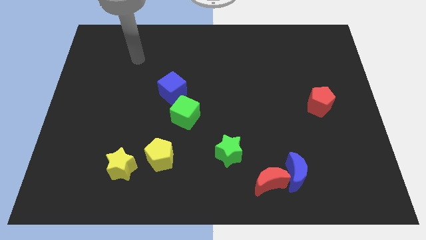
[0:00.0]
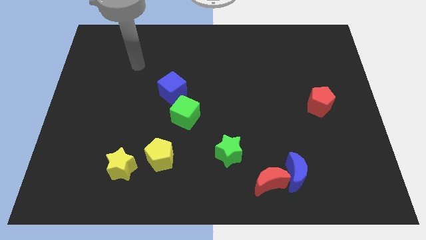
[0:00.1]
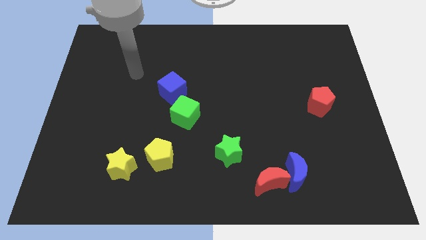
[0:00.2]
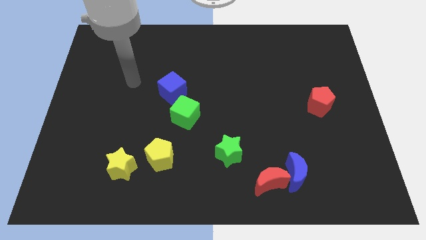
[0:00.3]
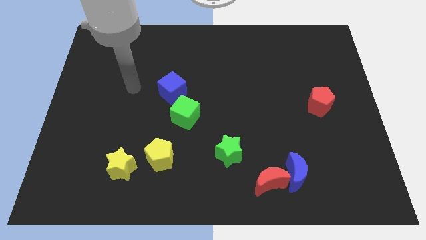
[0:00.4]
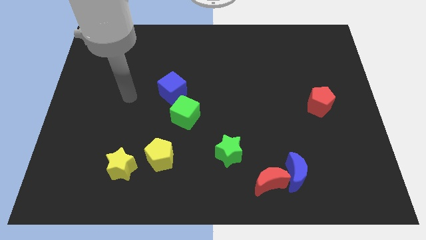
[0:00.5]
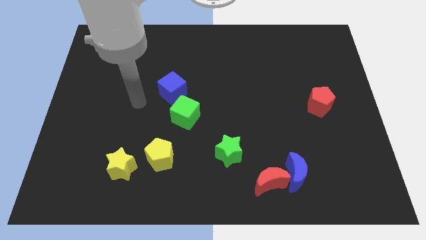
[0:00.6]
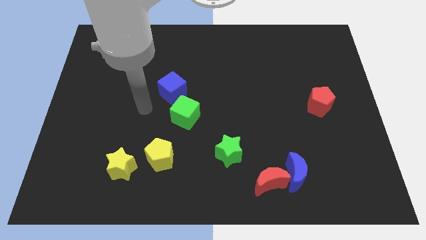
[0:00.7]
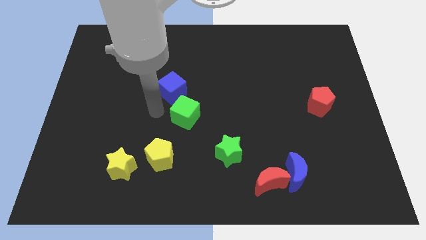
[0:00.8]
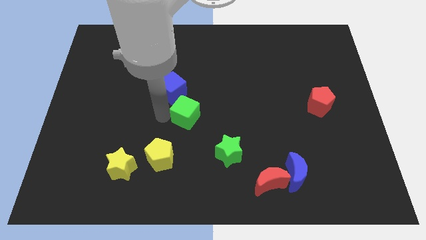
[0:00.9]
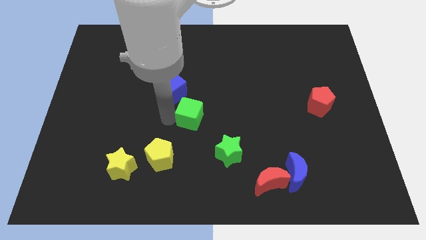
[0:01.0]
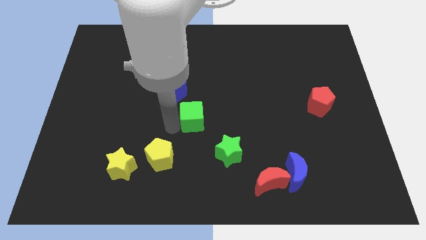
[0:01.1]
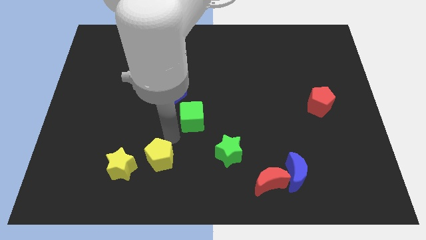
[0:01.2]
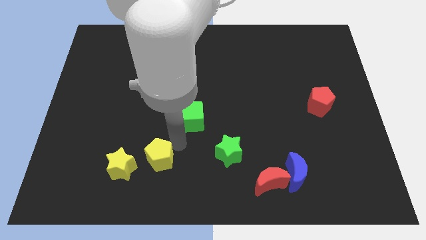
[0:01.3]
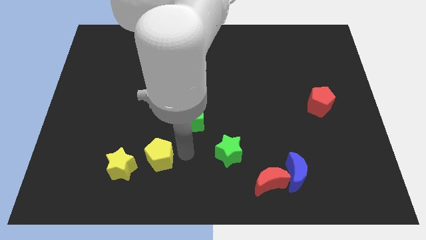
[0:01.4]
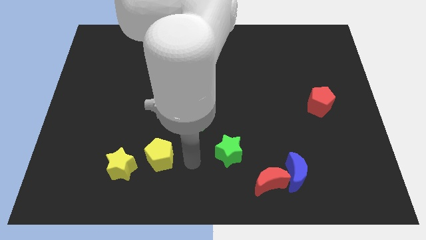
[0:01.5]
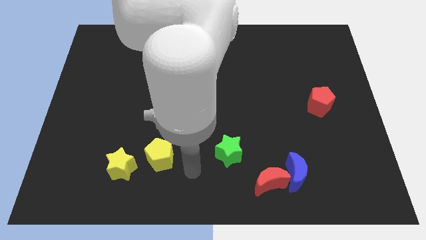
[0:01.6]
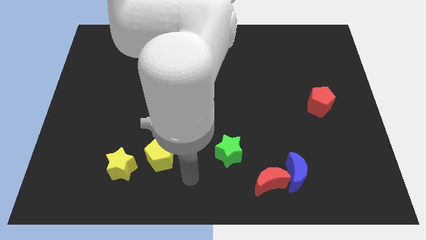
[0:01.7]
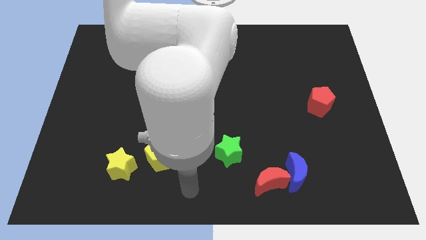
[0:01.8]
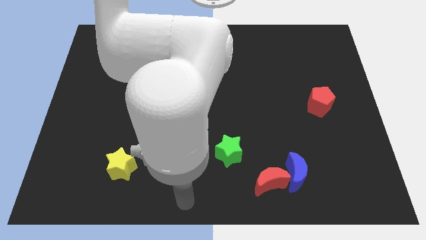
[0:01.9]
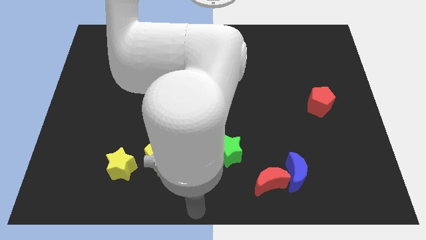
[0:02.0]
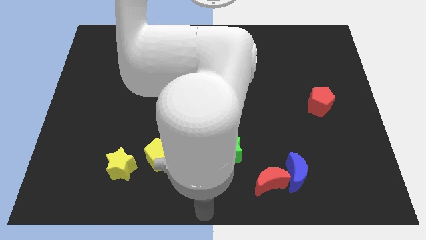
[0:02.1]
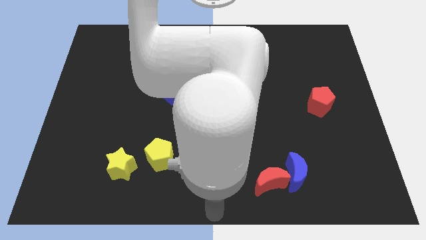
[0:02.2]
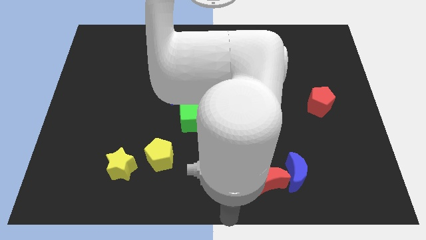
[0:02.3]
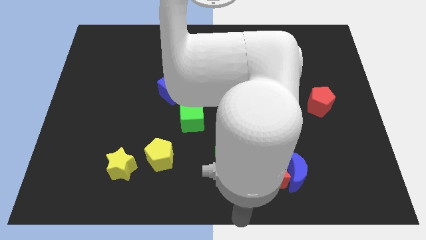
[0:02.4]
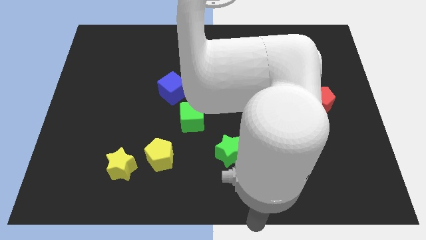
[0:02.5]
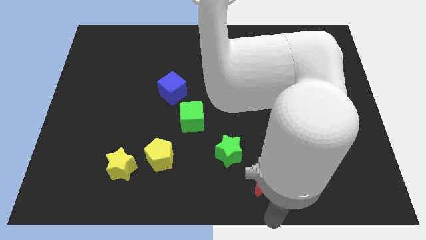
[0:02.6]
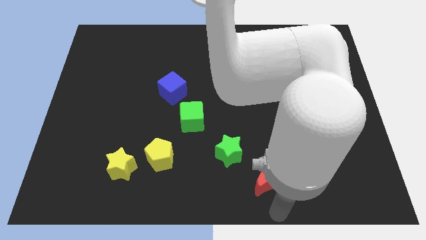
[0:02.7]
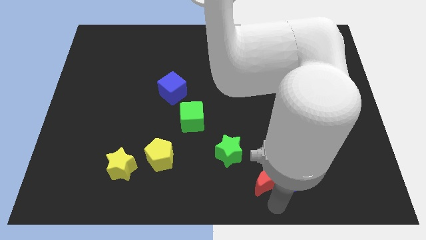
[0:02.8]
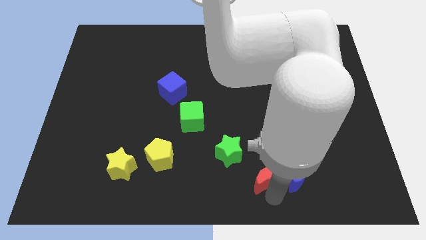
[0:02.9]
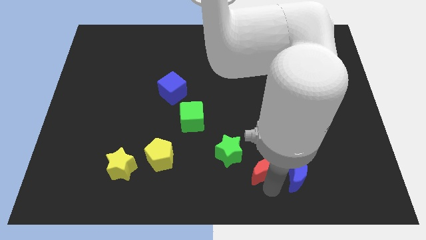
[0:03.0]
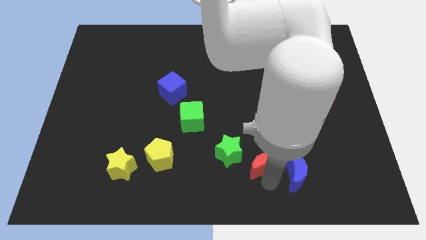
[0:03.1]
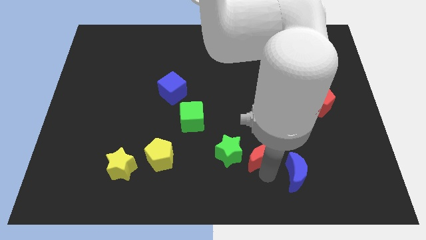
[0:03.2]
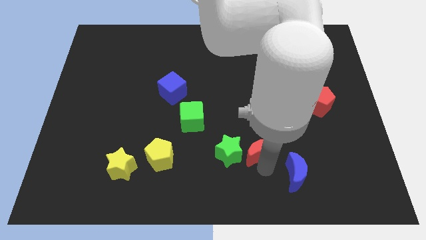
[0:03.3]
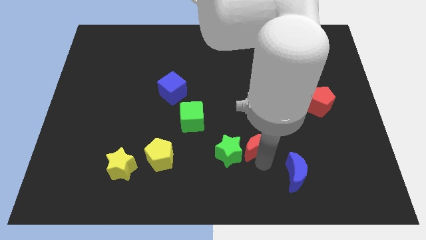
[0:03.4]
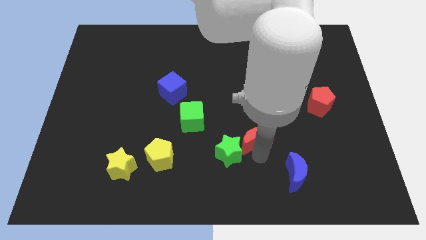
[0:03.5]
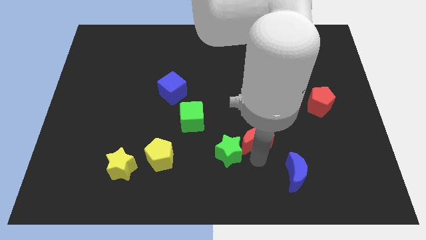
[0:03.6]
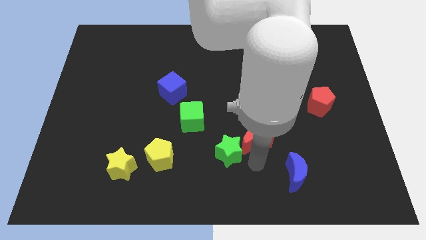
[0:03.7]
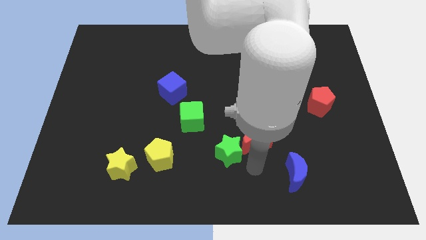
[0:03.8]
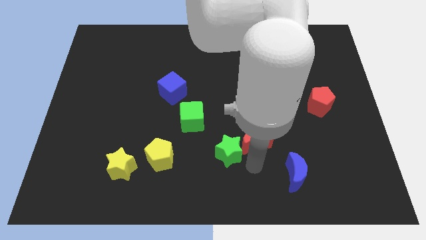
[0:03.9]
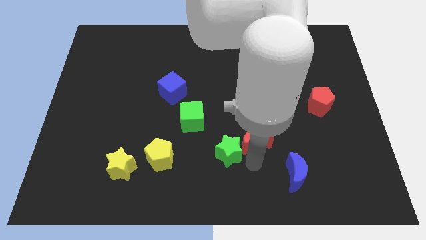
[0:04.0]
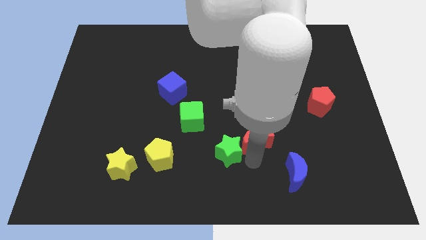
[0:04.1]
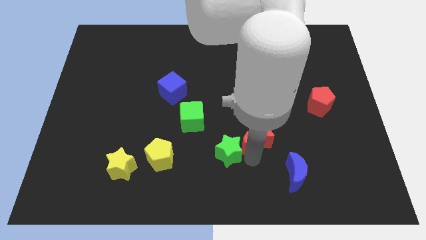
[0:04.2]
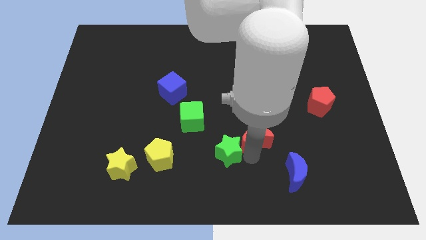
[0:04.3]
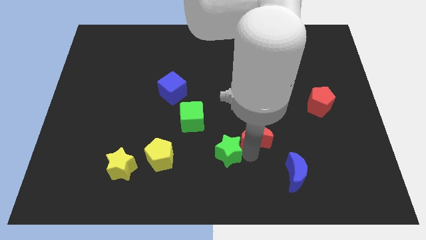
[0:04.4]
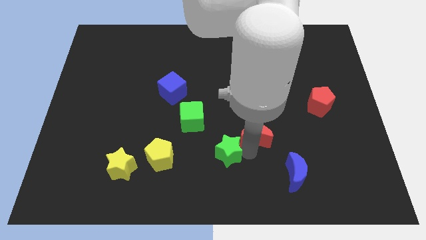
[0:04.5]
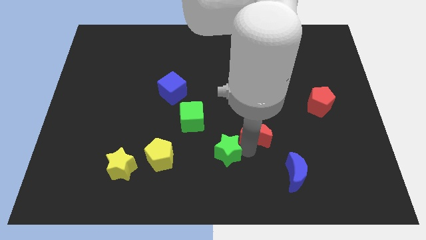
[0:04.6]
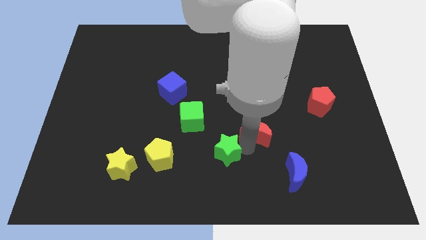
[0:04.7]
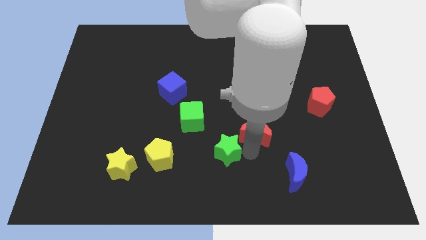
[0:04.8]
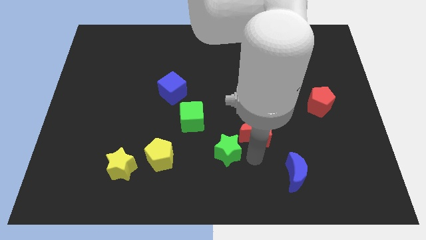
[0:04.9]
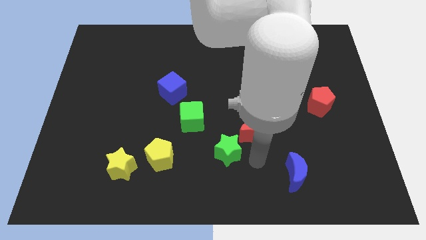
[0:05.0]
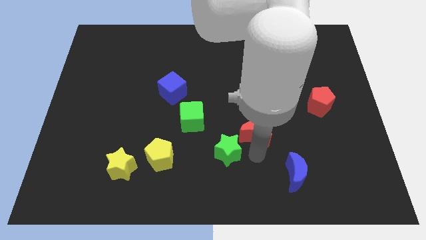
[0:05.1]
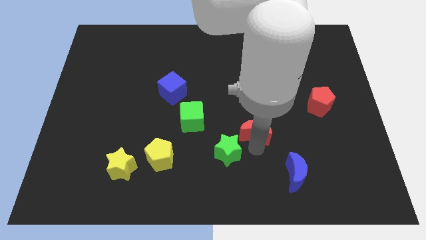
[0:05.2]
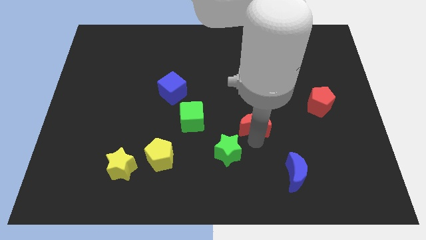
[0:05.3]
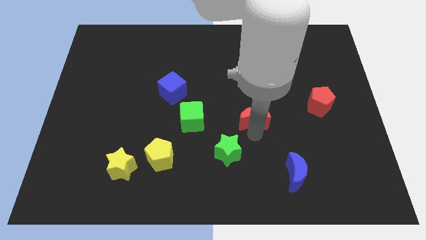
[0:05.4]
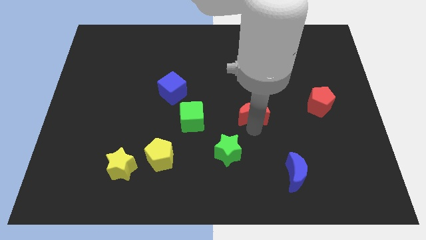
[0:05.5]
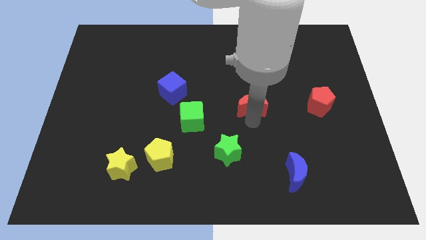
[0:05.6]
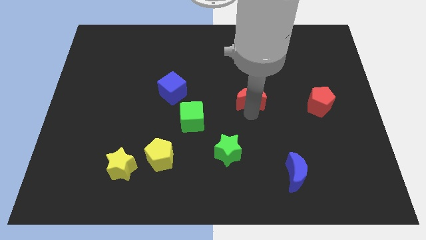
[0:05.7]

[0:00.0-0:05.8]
move the red moon upwards

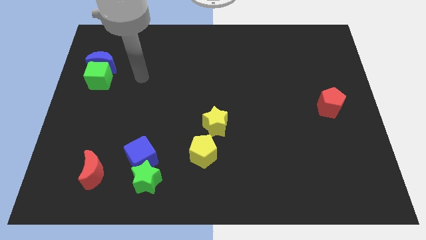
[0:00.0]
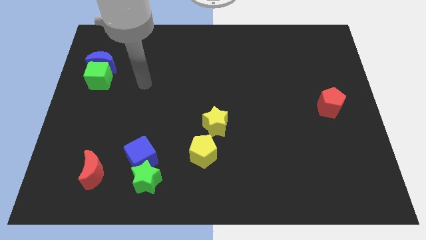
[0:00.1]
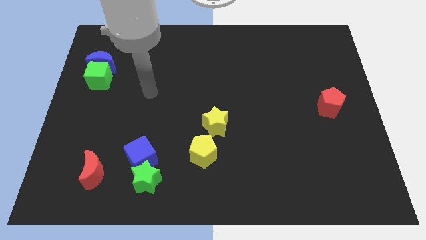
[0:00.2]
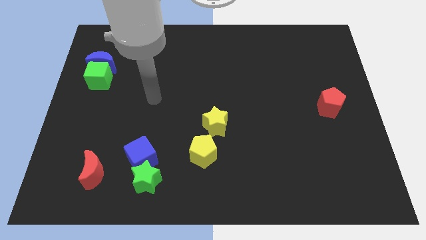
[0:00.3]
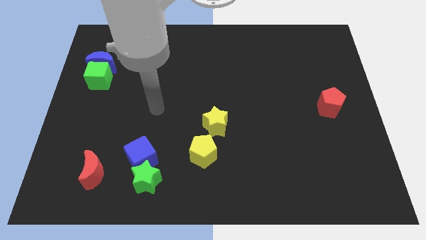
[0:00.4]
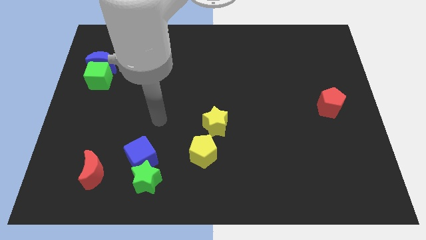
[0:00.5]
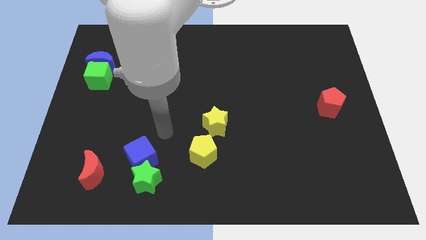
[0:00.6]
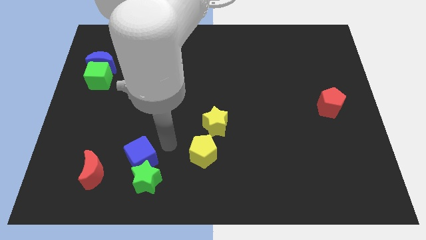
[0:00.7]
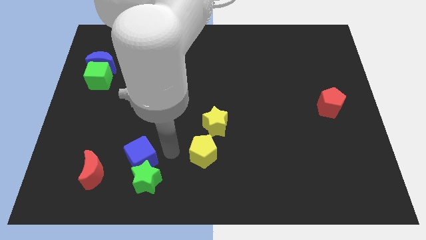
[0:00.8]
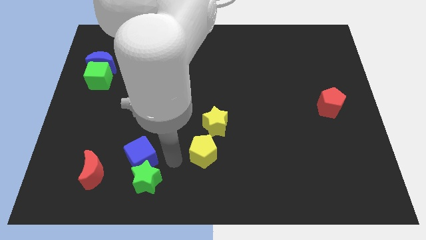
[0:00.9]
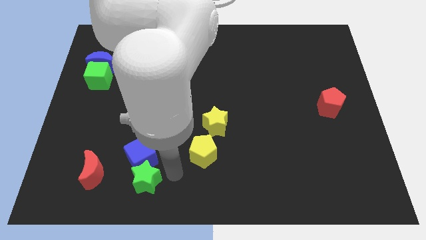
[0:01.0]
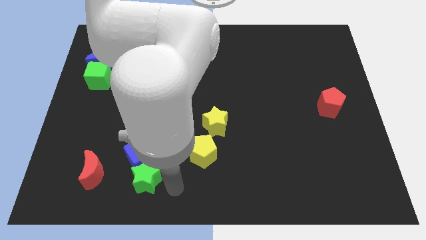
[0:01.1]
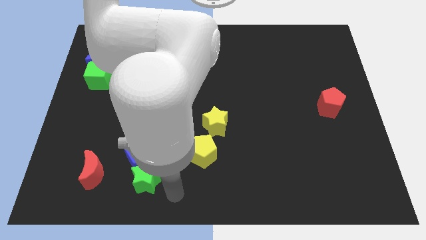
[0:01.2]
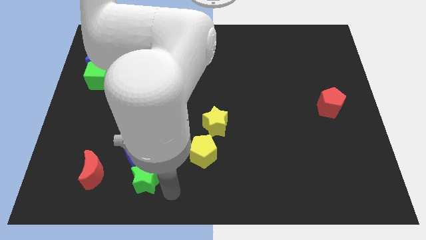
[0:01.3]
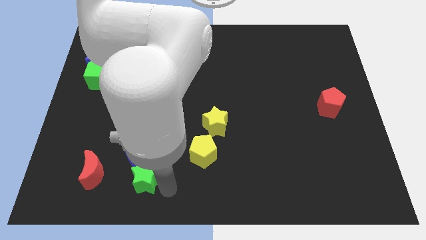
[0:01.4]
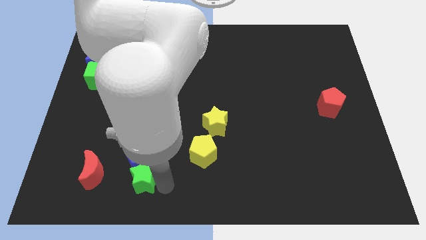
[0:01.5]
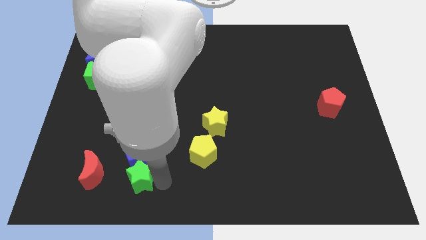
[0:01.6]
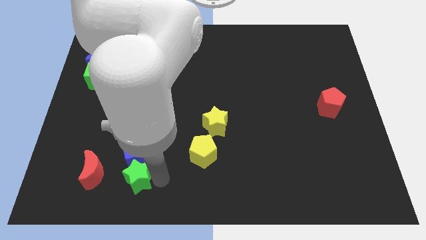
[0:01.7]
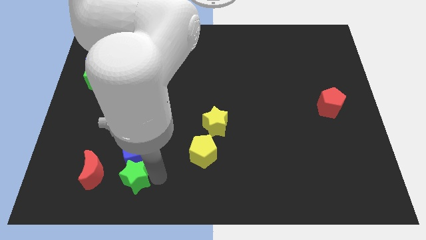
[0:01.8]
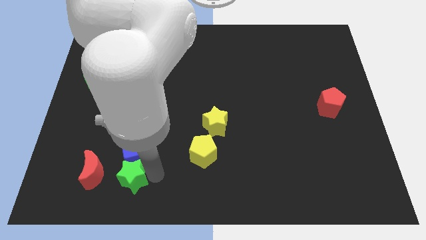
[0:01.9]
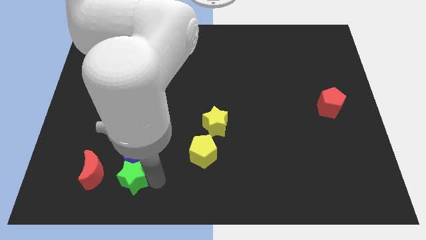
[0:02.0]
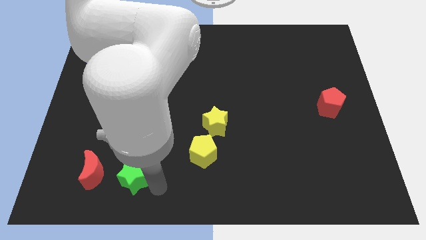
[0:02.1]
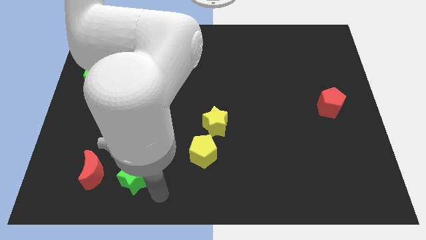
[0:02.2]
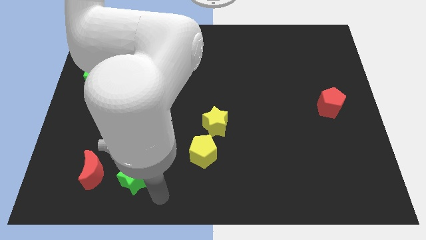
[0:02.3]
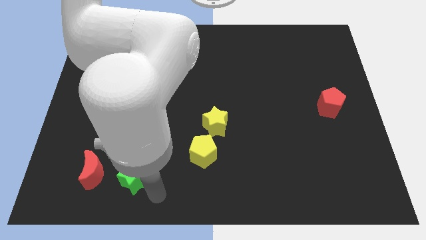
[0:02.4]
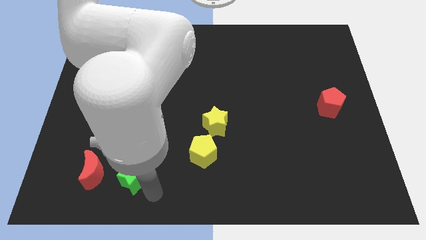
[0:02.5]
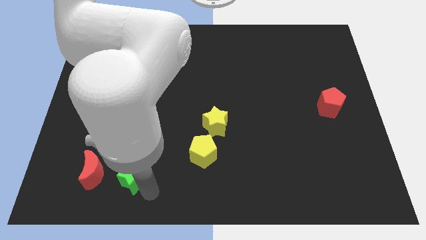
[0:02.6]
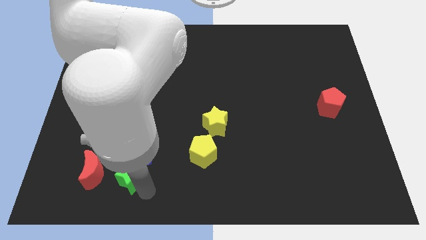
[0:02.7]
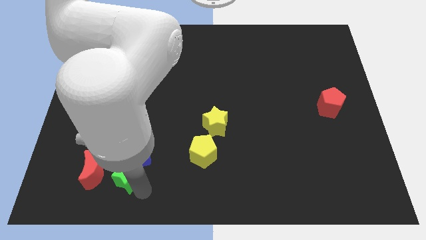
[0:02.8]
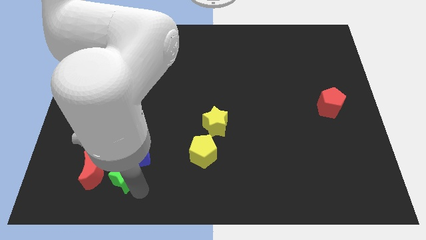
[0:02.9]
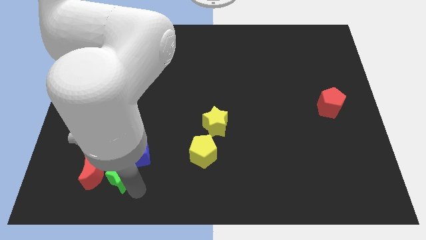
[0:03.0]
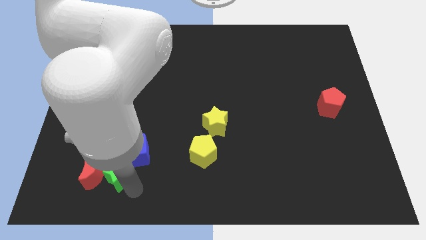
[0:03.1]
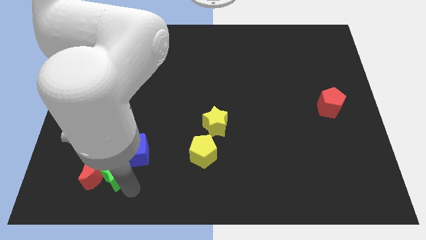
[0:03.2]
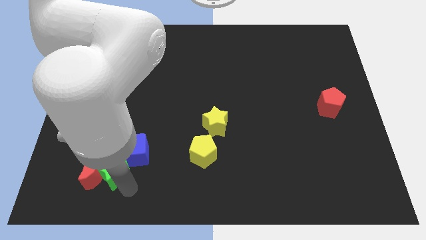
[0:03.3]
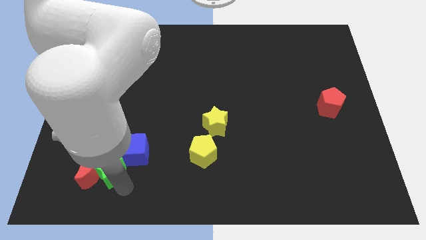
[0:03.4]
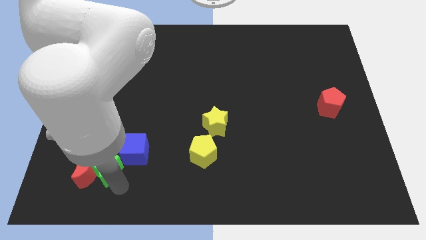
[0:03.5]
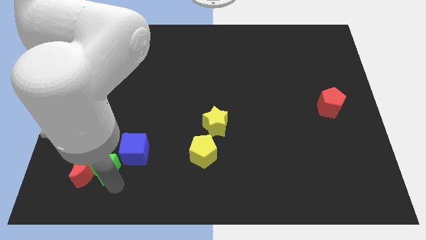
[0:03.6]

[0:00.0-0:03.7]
slide the green star a bit up and left diagonally
